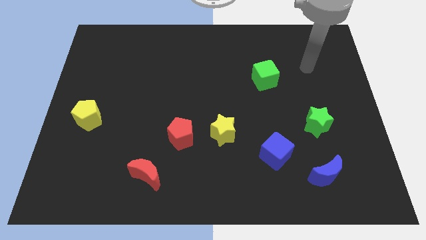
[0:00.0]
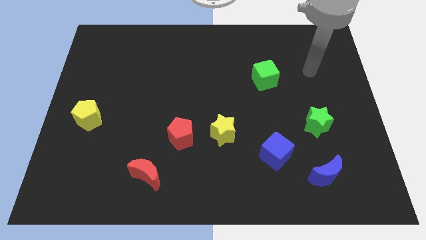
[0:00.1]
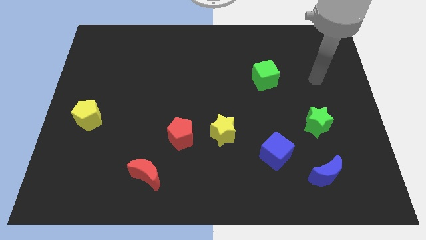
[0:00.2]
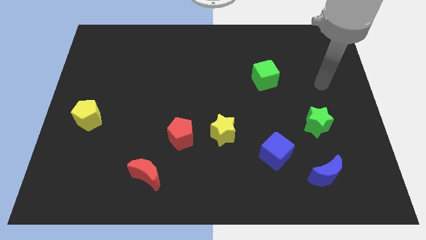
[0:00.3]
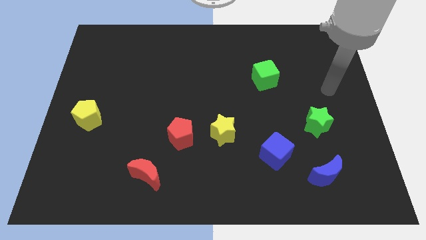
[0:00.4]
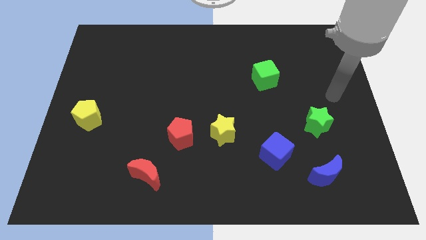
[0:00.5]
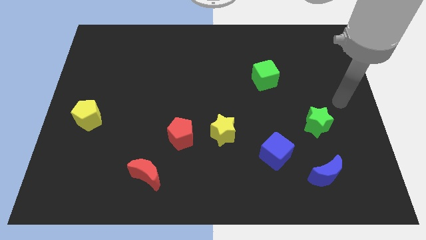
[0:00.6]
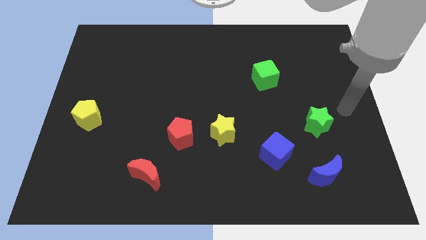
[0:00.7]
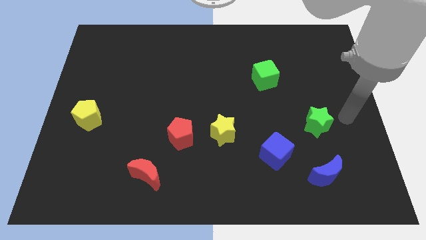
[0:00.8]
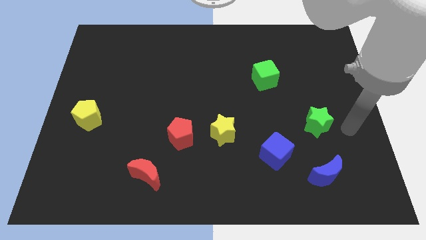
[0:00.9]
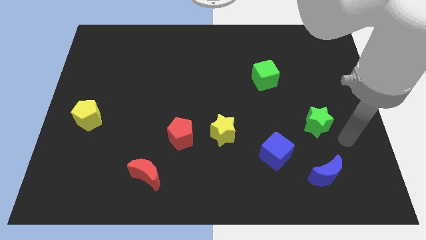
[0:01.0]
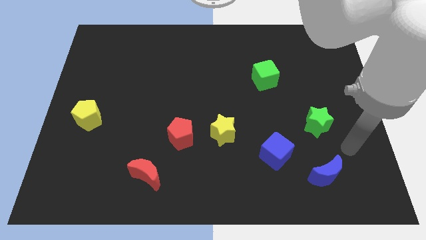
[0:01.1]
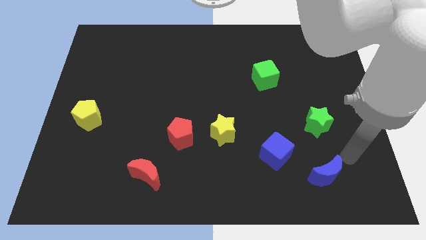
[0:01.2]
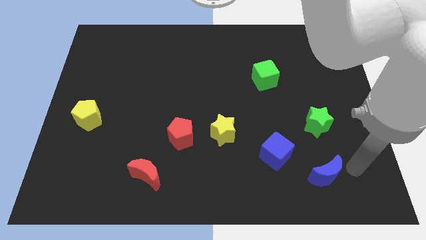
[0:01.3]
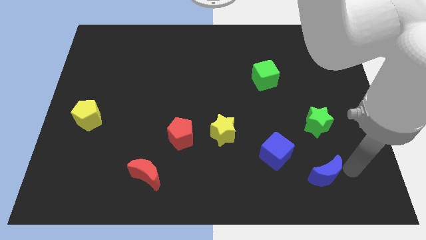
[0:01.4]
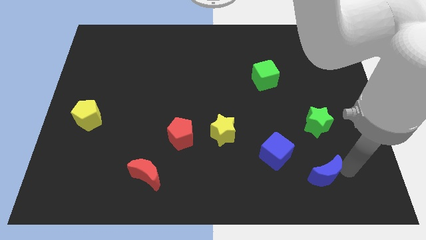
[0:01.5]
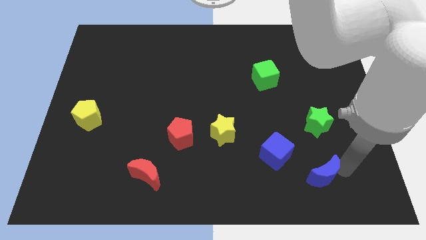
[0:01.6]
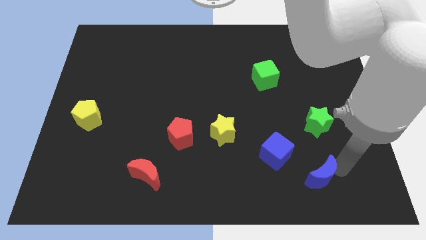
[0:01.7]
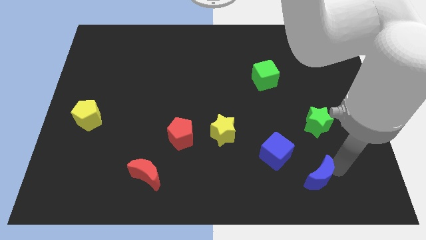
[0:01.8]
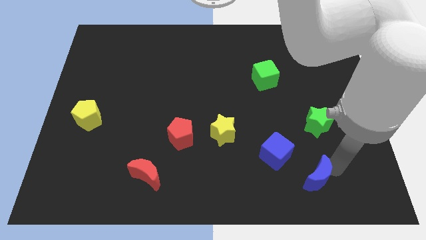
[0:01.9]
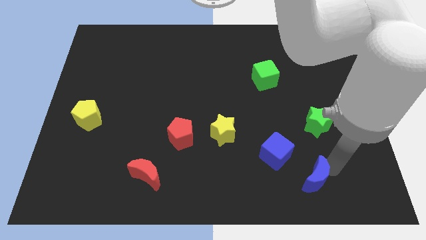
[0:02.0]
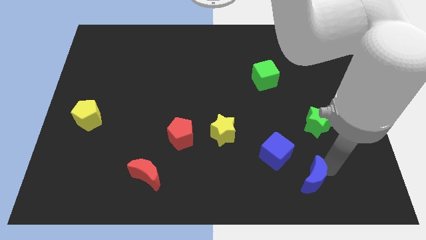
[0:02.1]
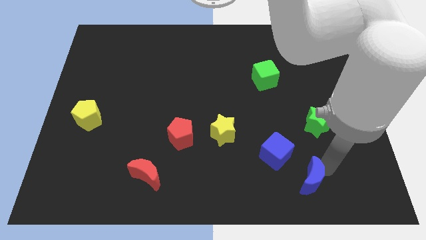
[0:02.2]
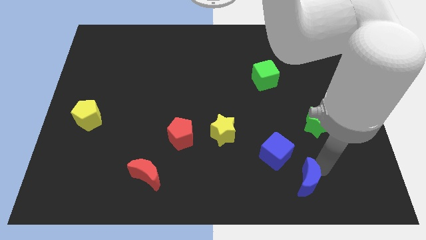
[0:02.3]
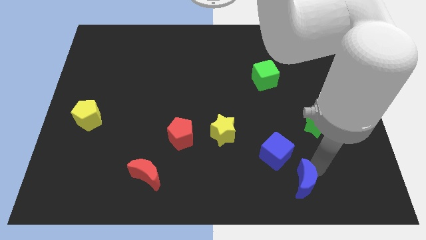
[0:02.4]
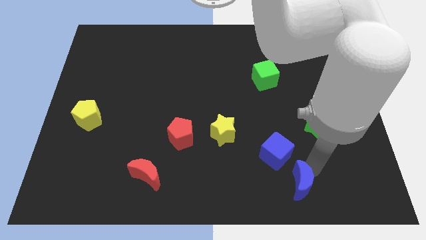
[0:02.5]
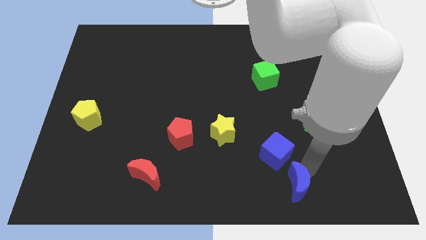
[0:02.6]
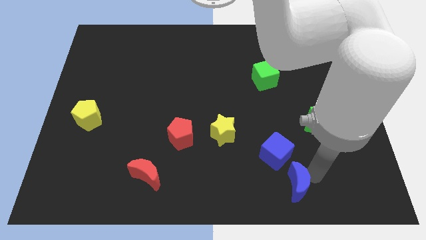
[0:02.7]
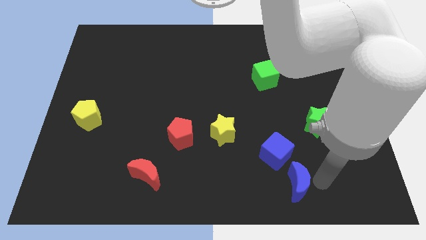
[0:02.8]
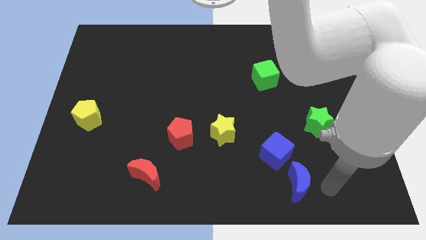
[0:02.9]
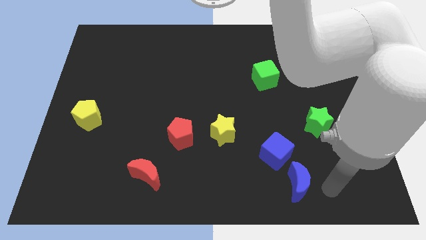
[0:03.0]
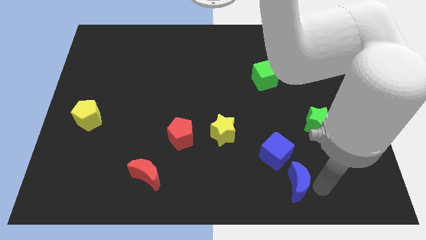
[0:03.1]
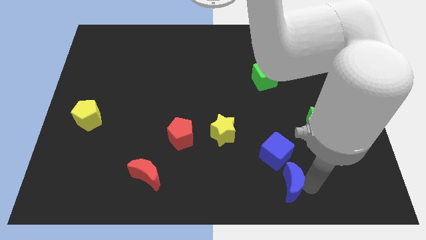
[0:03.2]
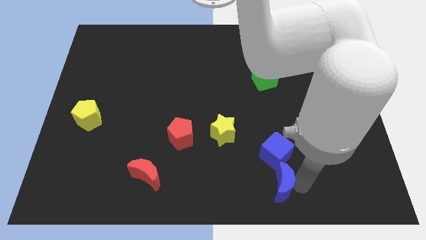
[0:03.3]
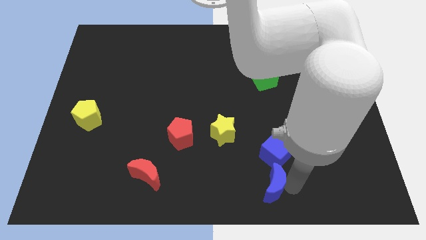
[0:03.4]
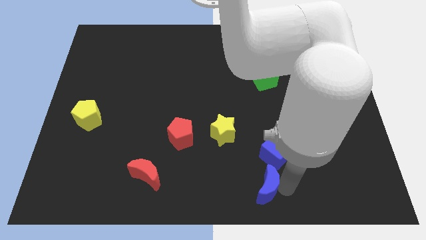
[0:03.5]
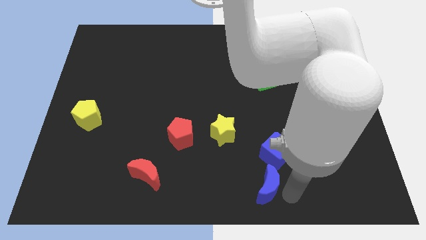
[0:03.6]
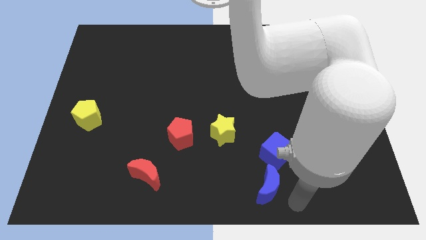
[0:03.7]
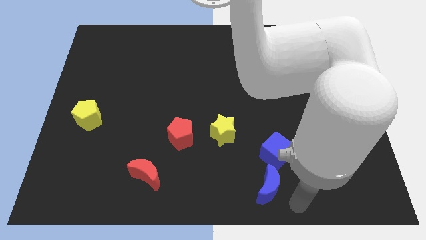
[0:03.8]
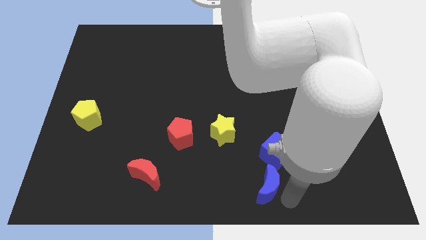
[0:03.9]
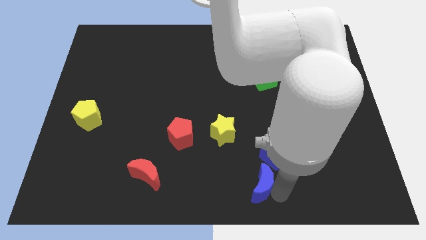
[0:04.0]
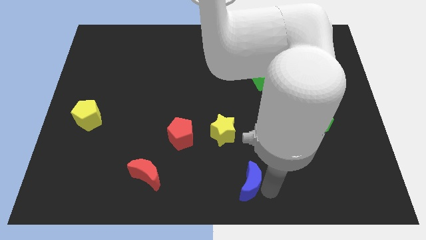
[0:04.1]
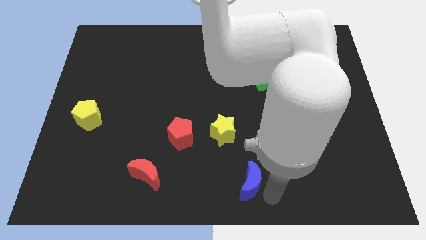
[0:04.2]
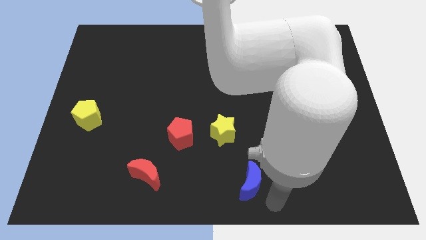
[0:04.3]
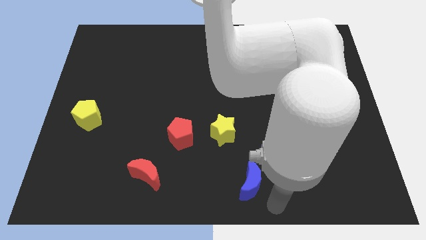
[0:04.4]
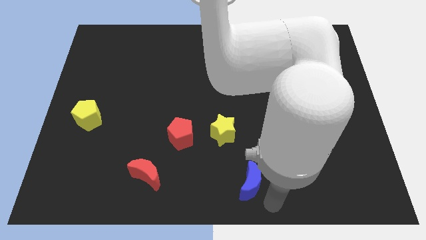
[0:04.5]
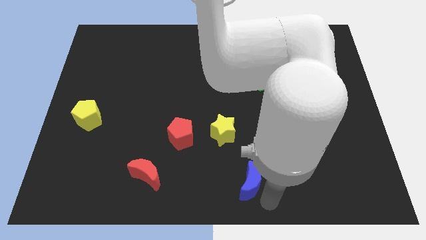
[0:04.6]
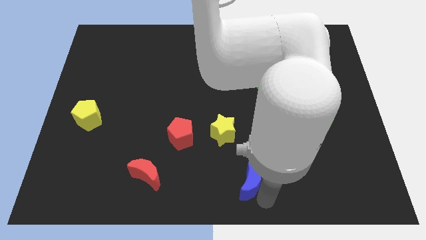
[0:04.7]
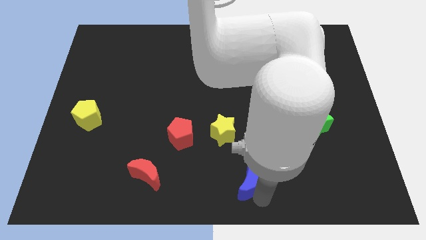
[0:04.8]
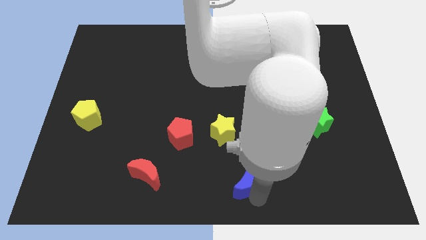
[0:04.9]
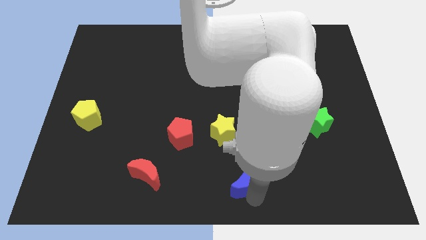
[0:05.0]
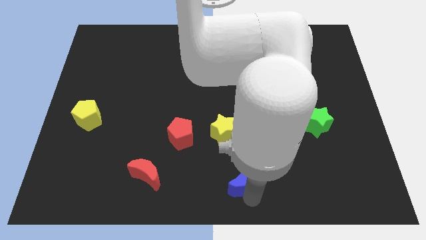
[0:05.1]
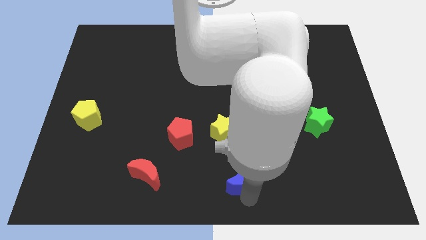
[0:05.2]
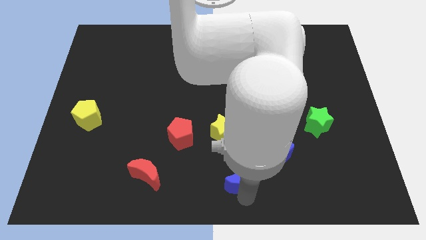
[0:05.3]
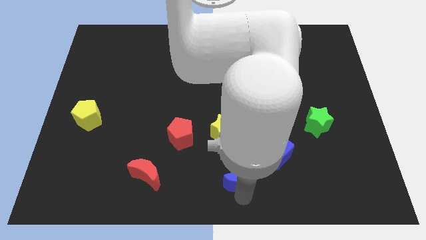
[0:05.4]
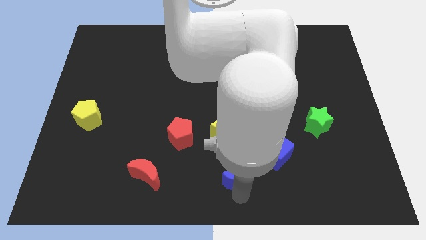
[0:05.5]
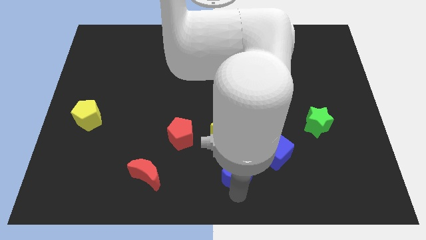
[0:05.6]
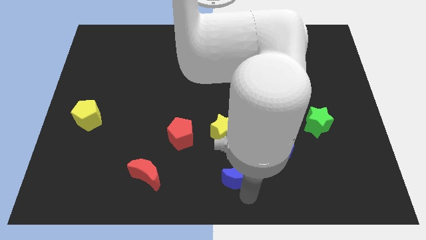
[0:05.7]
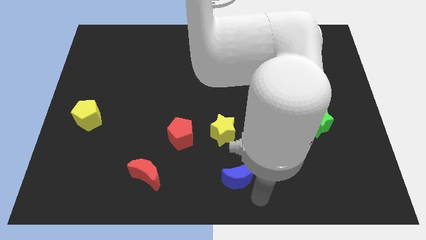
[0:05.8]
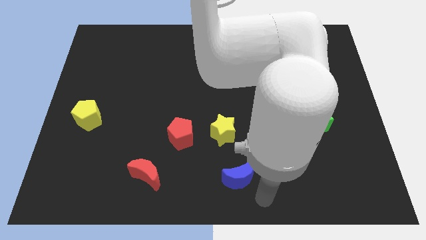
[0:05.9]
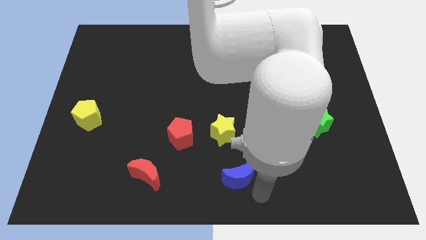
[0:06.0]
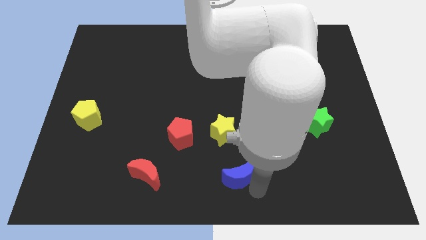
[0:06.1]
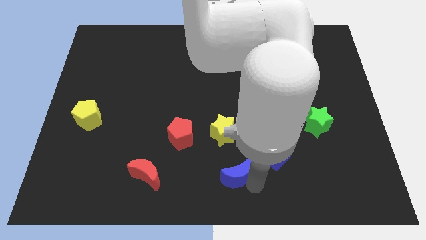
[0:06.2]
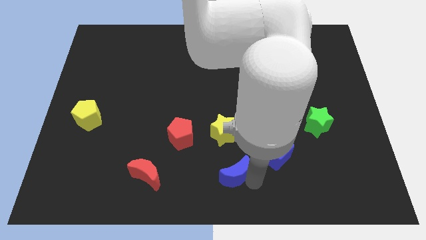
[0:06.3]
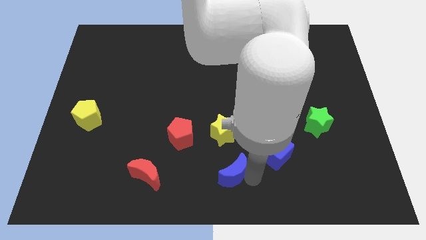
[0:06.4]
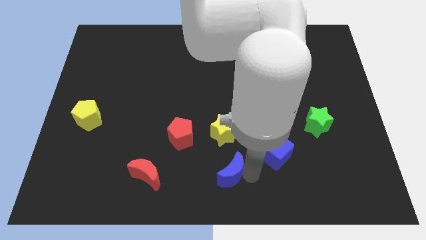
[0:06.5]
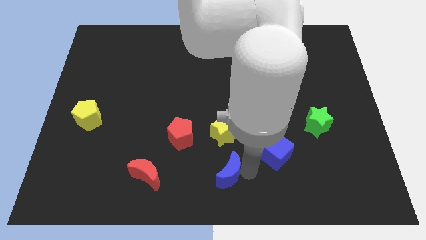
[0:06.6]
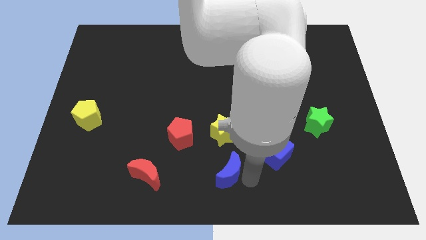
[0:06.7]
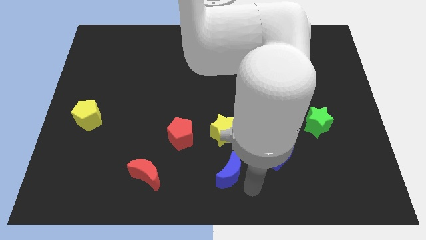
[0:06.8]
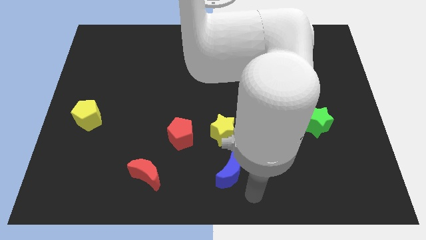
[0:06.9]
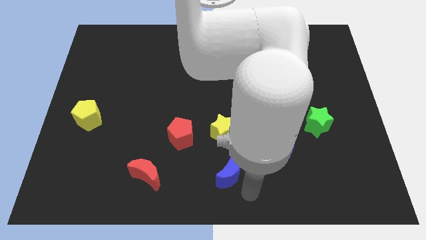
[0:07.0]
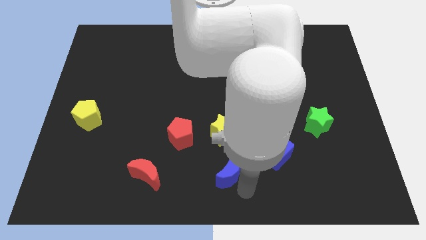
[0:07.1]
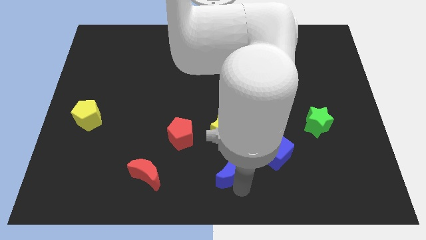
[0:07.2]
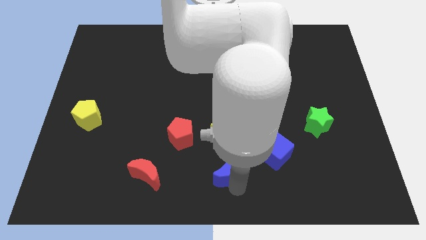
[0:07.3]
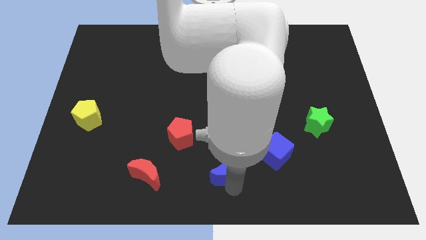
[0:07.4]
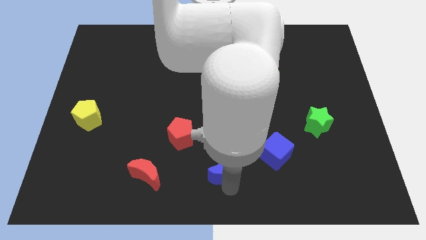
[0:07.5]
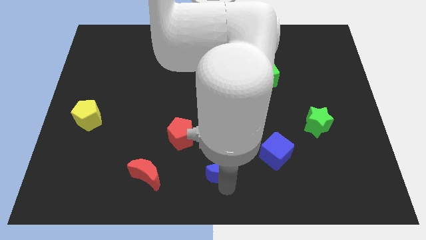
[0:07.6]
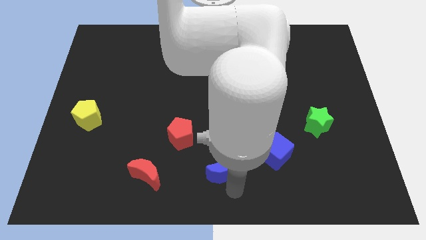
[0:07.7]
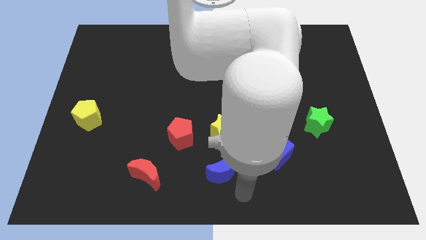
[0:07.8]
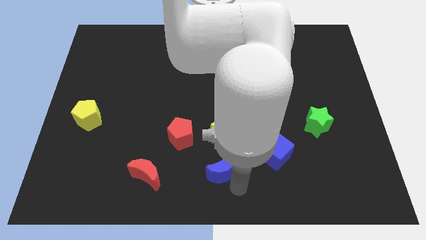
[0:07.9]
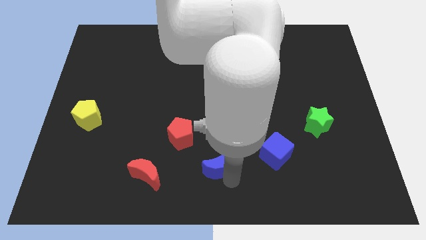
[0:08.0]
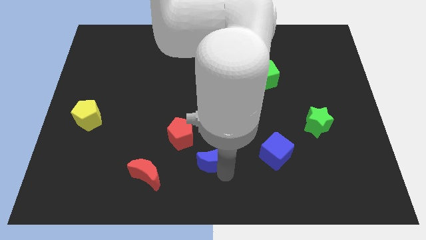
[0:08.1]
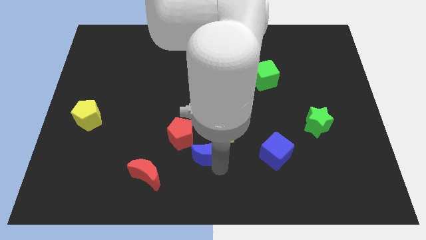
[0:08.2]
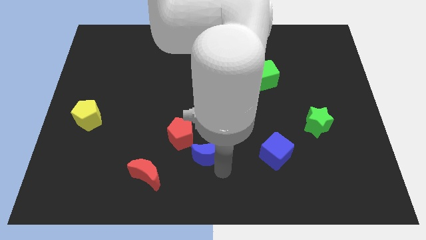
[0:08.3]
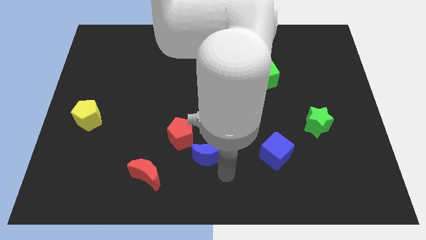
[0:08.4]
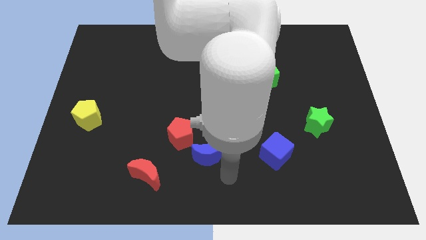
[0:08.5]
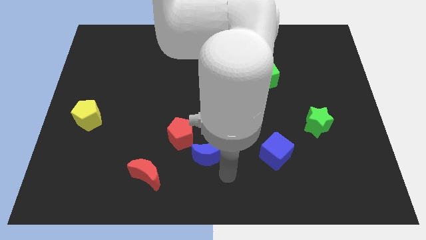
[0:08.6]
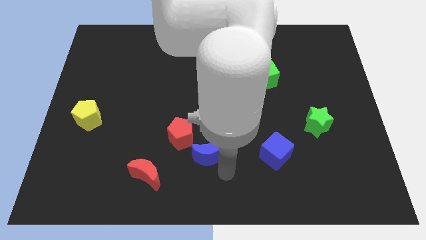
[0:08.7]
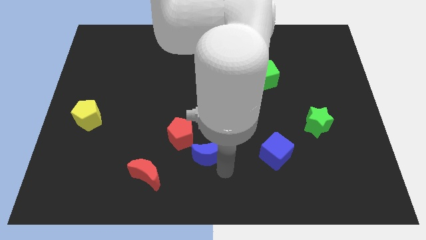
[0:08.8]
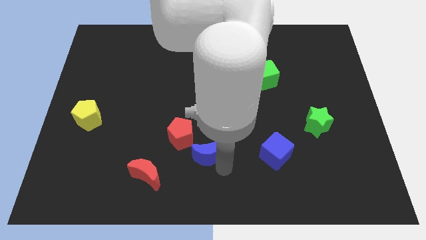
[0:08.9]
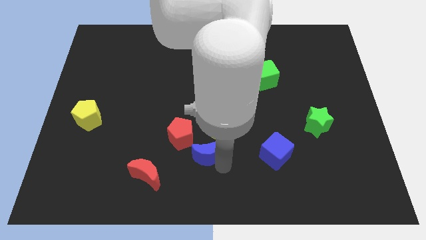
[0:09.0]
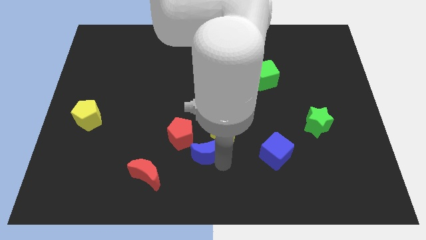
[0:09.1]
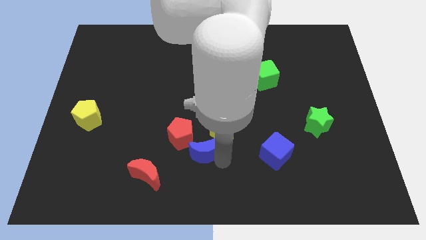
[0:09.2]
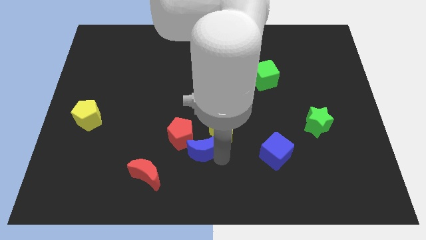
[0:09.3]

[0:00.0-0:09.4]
move the blue moon to the red pentagon
